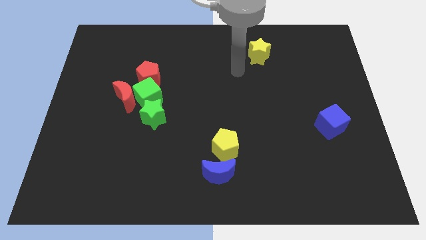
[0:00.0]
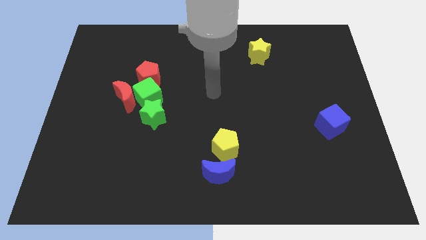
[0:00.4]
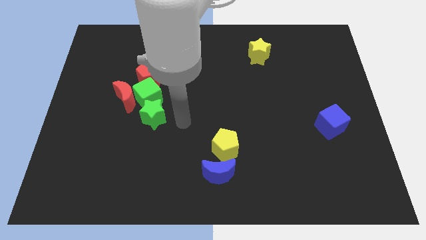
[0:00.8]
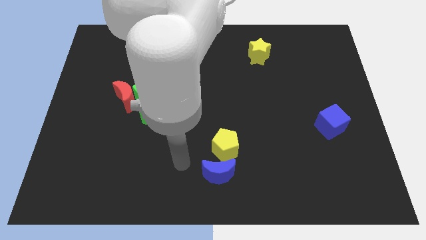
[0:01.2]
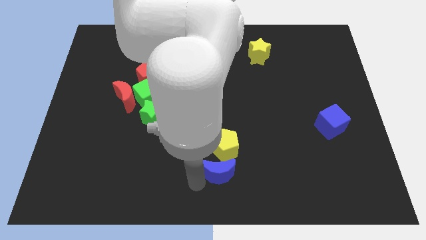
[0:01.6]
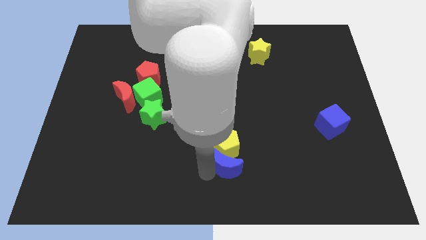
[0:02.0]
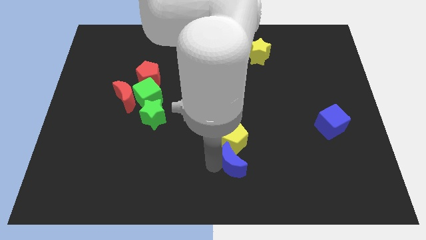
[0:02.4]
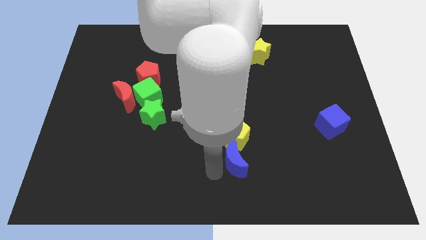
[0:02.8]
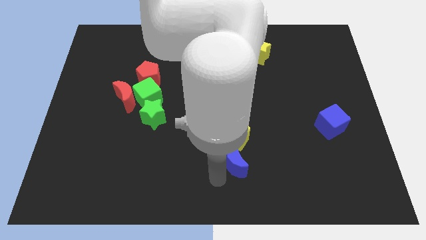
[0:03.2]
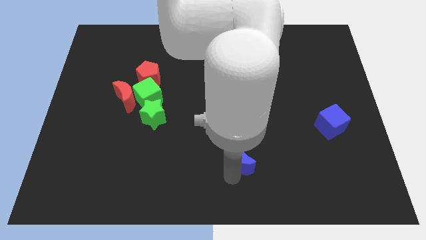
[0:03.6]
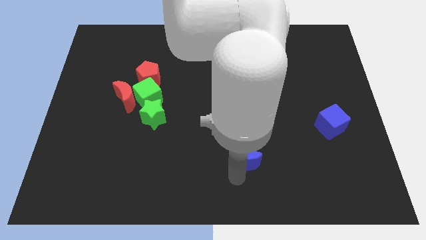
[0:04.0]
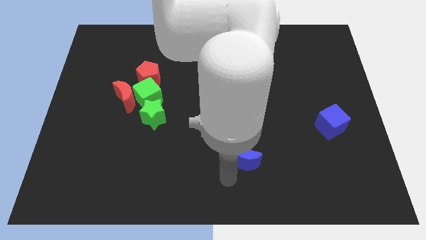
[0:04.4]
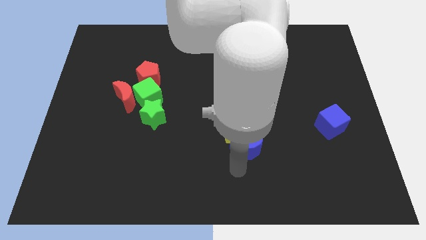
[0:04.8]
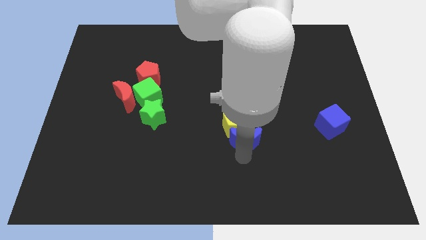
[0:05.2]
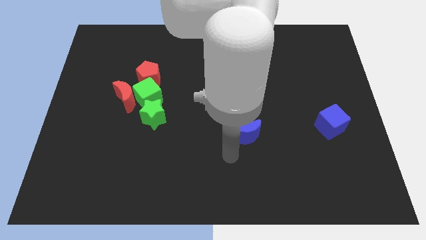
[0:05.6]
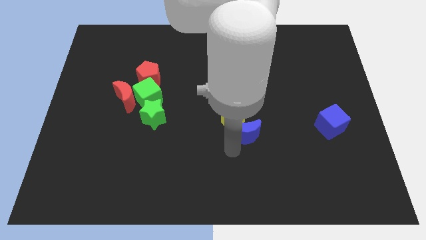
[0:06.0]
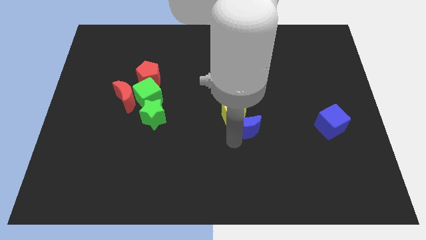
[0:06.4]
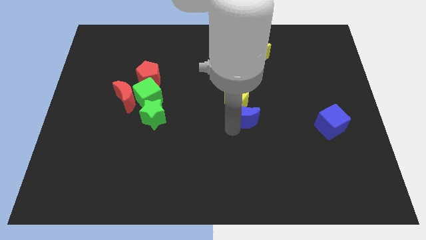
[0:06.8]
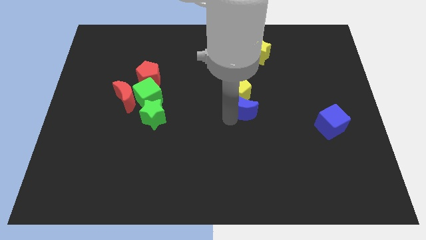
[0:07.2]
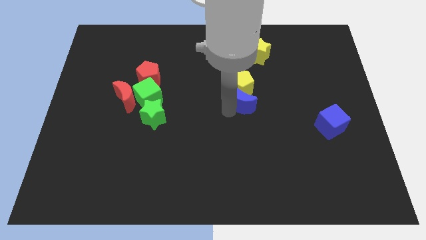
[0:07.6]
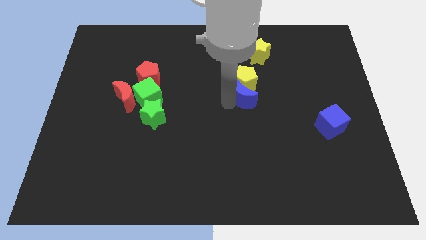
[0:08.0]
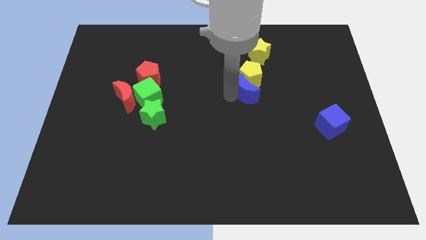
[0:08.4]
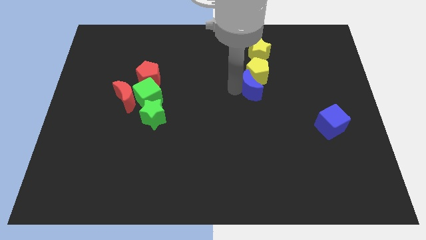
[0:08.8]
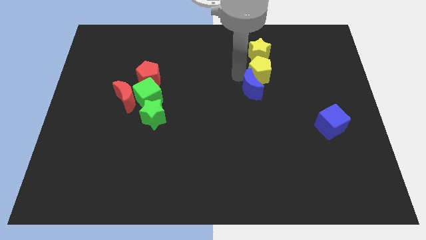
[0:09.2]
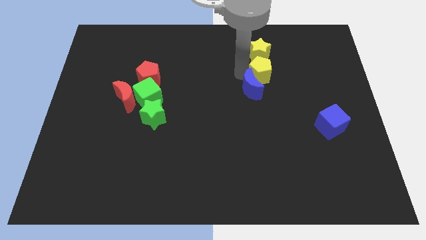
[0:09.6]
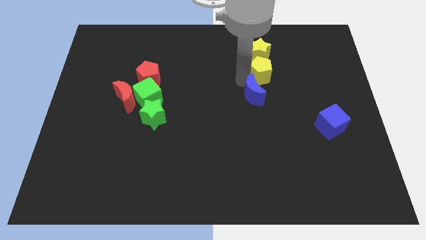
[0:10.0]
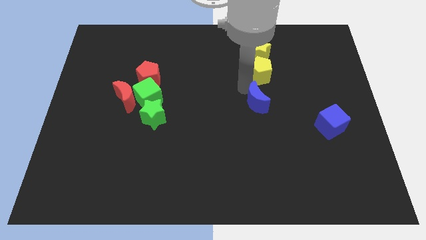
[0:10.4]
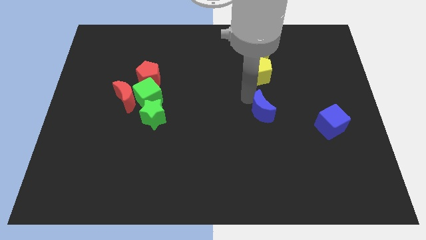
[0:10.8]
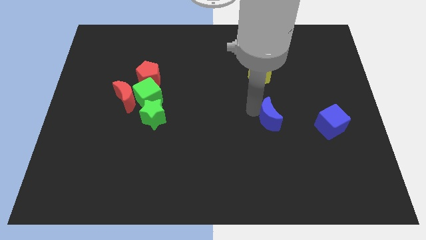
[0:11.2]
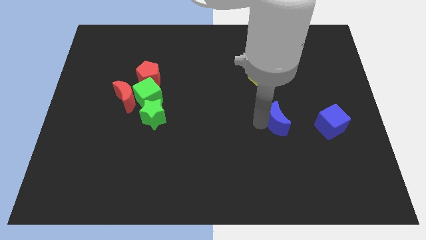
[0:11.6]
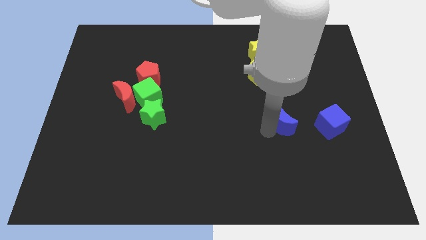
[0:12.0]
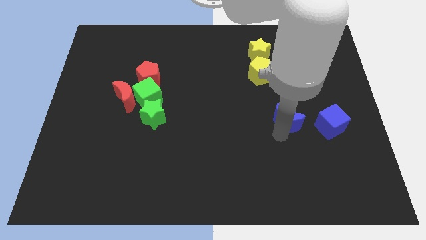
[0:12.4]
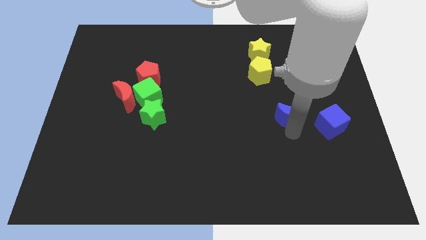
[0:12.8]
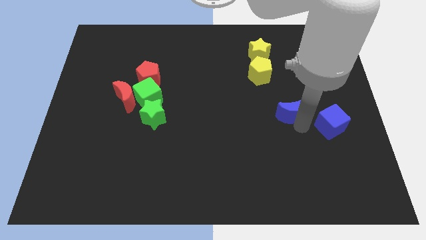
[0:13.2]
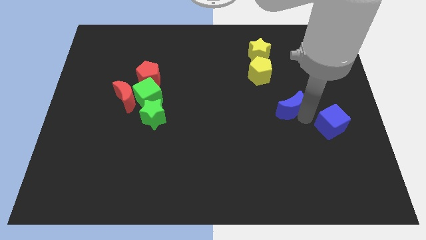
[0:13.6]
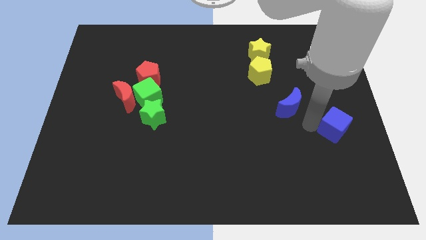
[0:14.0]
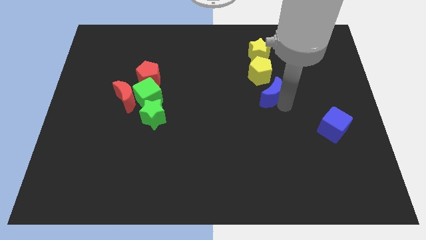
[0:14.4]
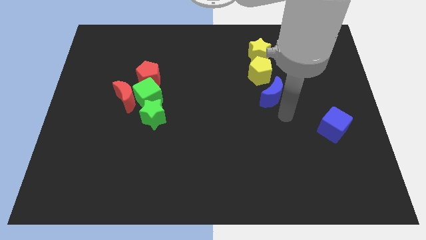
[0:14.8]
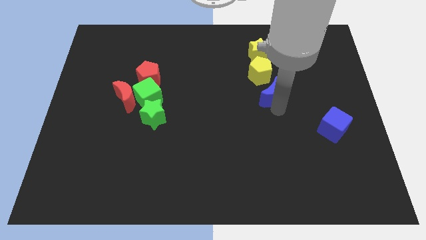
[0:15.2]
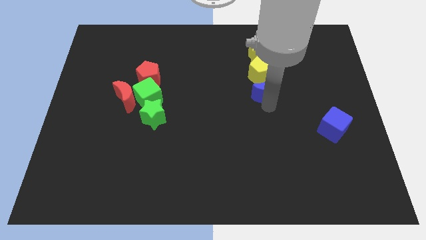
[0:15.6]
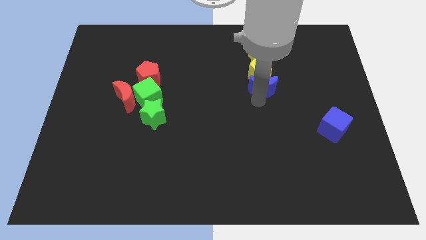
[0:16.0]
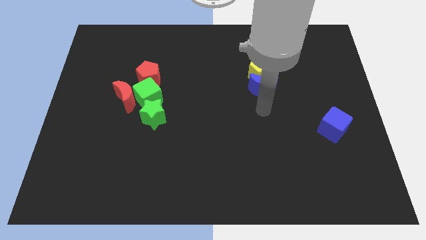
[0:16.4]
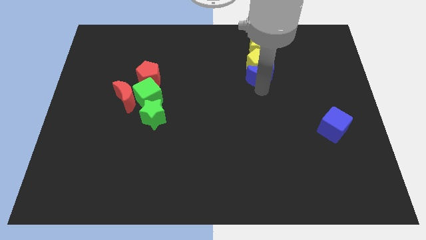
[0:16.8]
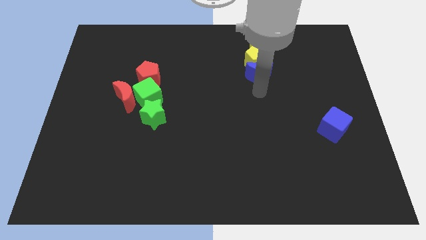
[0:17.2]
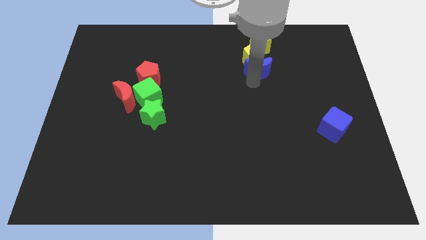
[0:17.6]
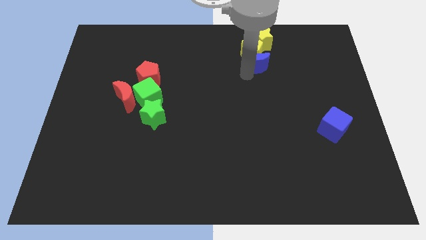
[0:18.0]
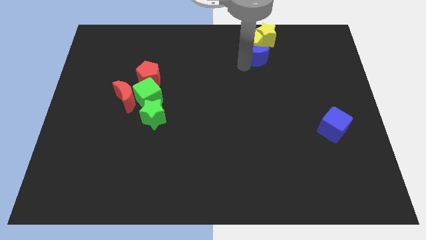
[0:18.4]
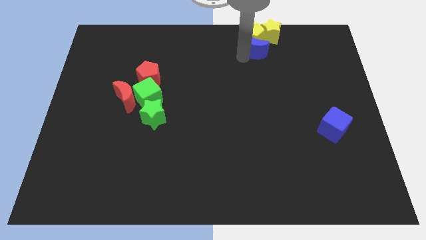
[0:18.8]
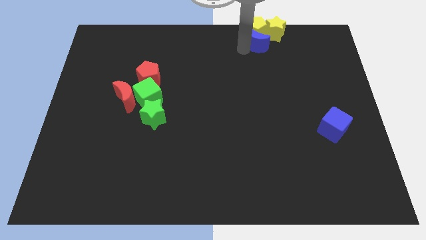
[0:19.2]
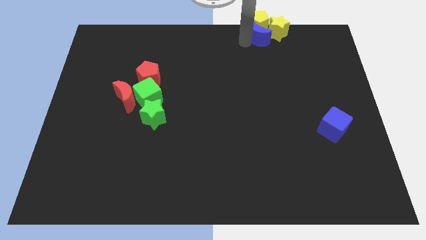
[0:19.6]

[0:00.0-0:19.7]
slide the blue moon close to the yellow star

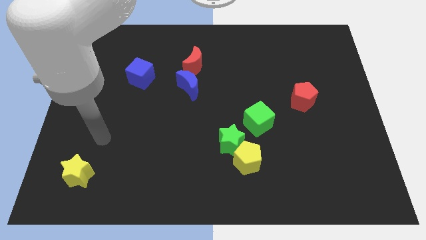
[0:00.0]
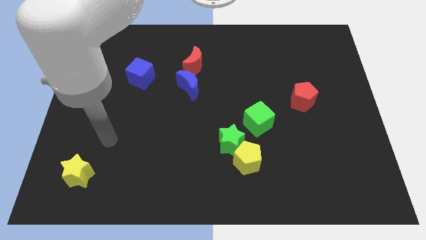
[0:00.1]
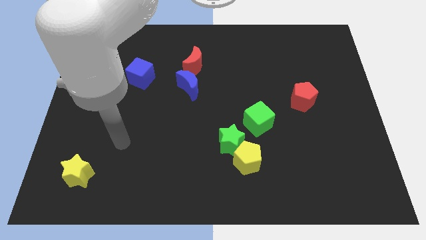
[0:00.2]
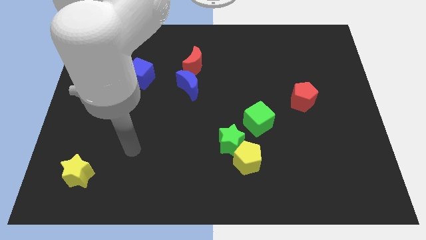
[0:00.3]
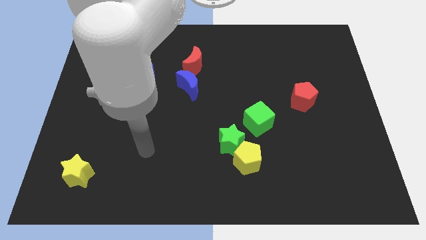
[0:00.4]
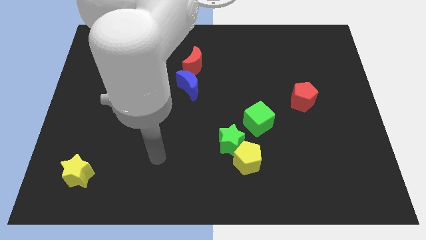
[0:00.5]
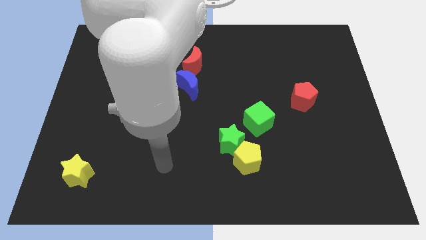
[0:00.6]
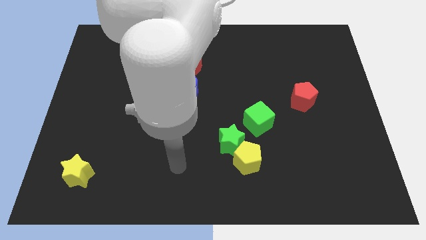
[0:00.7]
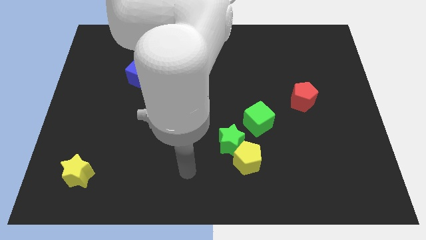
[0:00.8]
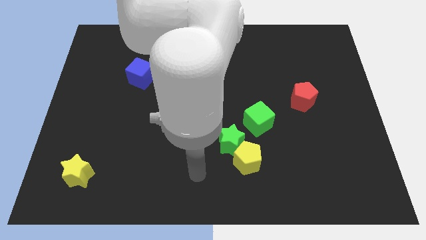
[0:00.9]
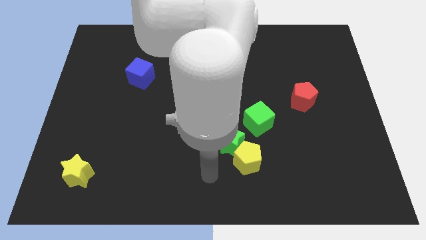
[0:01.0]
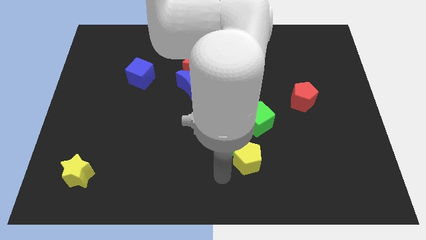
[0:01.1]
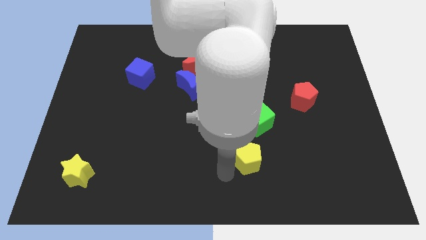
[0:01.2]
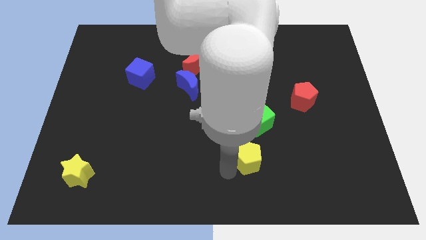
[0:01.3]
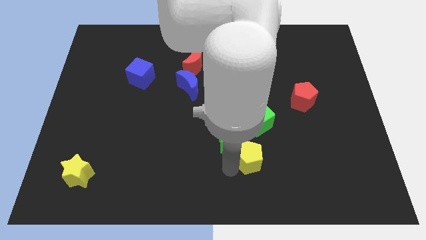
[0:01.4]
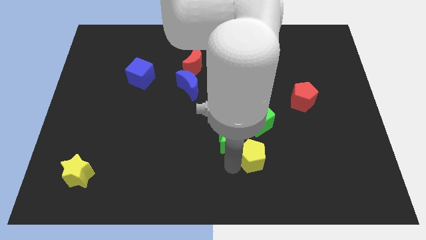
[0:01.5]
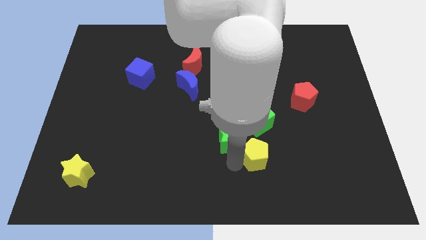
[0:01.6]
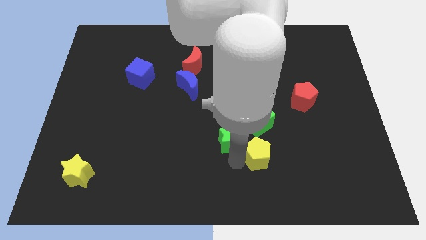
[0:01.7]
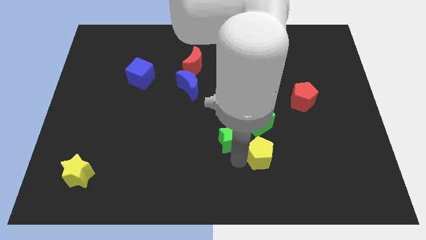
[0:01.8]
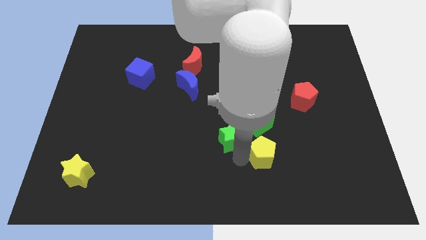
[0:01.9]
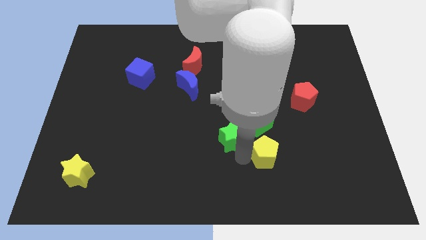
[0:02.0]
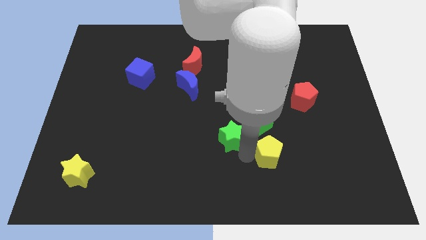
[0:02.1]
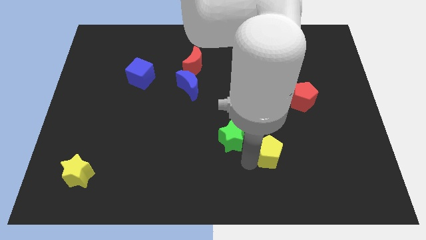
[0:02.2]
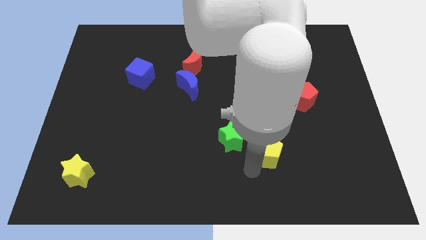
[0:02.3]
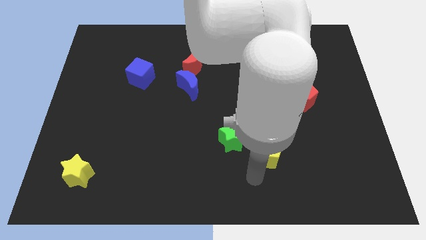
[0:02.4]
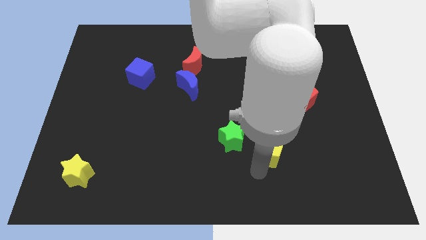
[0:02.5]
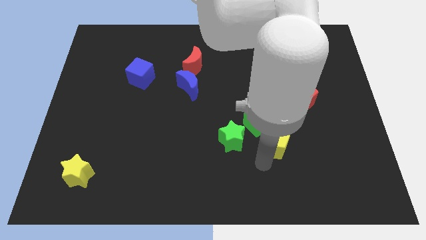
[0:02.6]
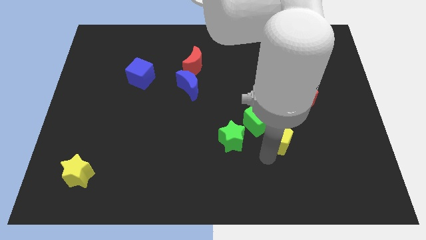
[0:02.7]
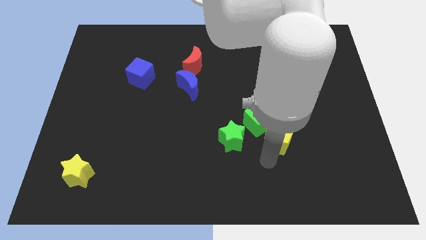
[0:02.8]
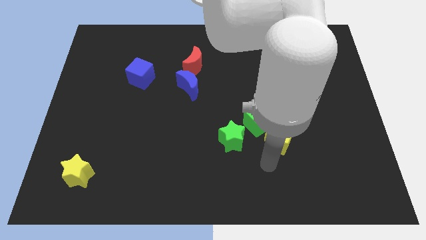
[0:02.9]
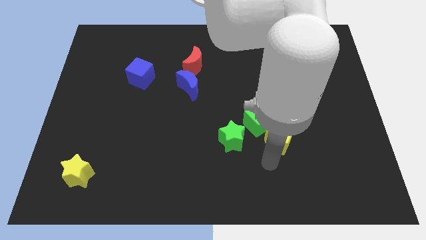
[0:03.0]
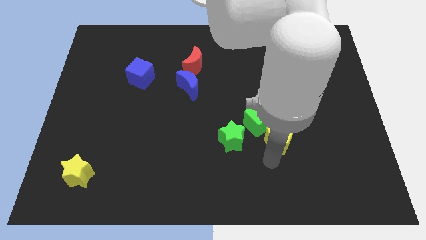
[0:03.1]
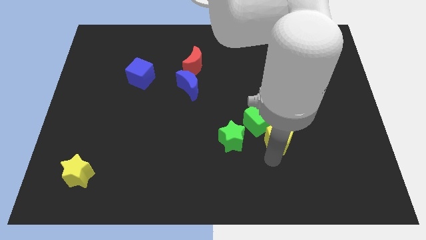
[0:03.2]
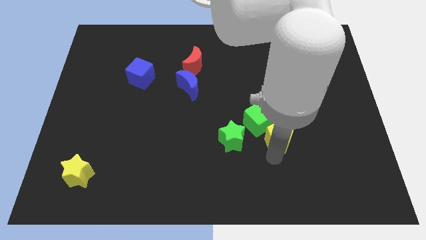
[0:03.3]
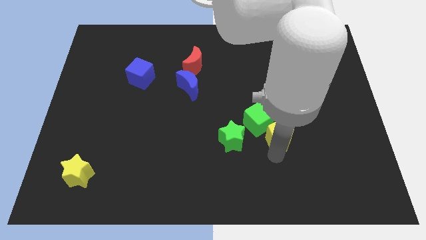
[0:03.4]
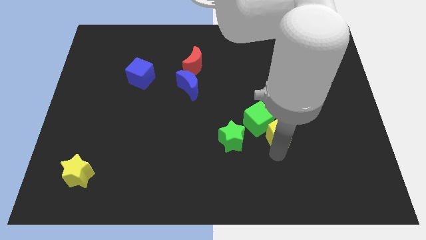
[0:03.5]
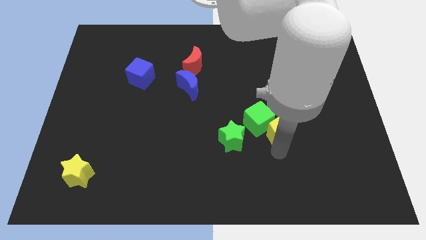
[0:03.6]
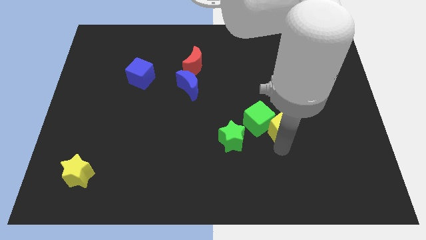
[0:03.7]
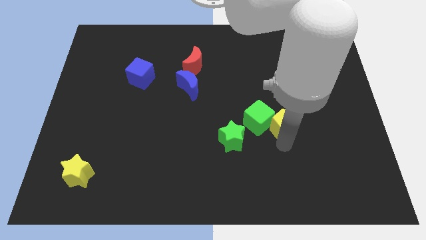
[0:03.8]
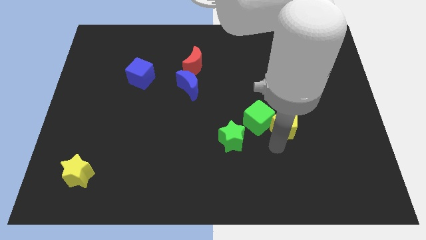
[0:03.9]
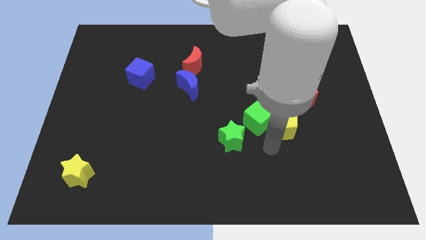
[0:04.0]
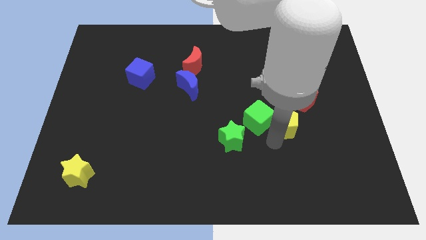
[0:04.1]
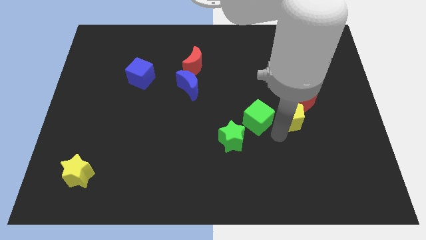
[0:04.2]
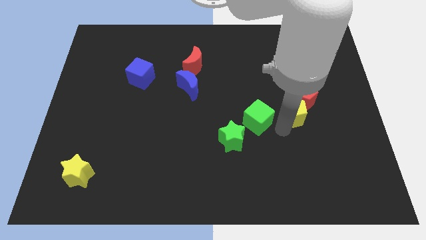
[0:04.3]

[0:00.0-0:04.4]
move the yellow pentagon to the red pentagon
